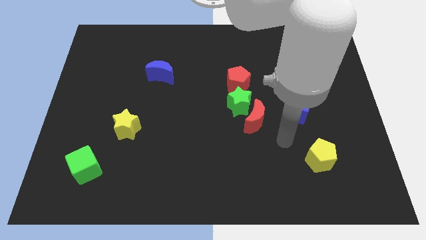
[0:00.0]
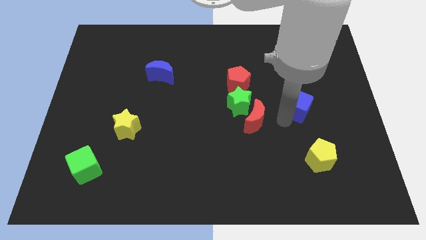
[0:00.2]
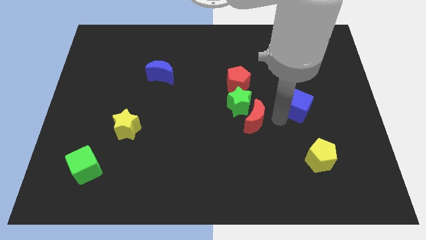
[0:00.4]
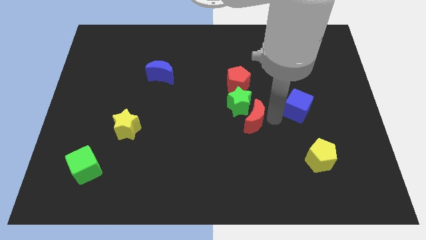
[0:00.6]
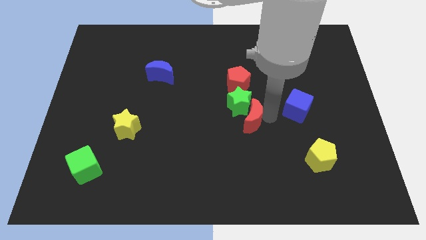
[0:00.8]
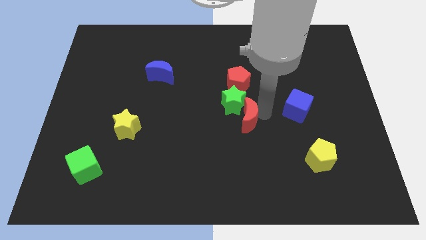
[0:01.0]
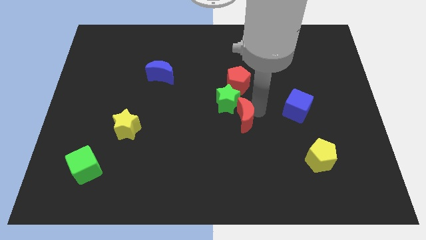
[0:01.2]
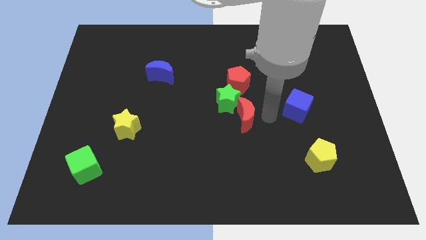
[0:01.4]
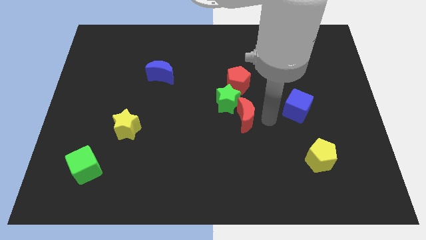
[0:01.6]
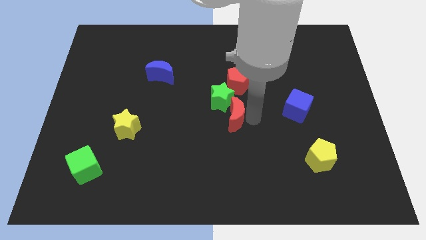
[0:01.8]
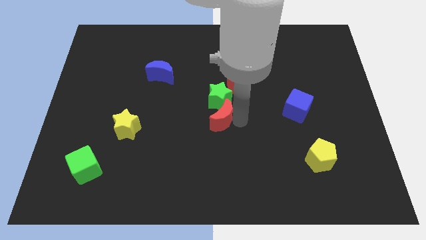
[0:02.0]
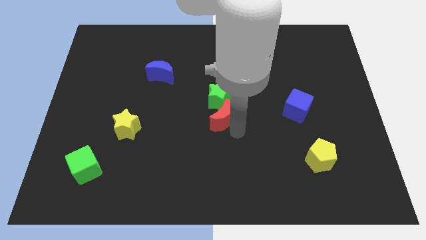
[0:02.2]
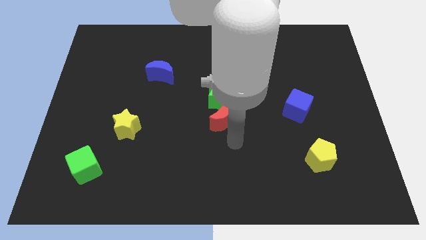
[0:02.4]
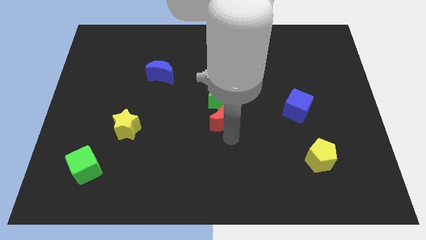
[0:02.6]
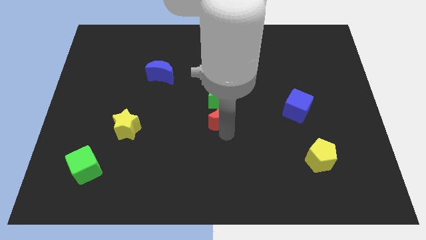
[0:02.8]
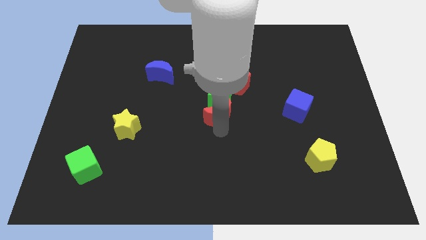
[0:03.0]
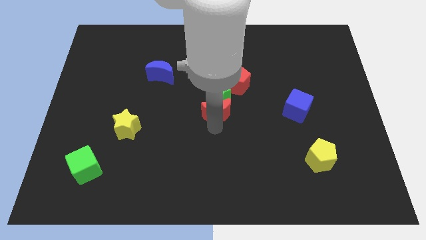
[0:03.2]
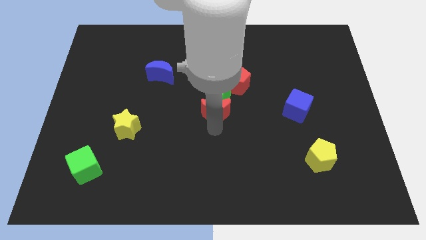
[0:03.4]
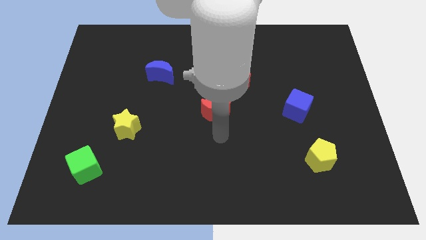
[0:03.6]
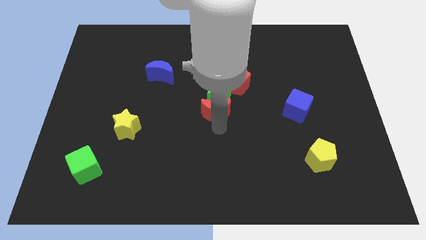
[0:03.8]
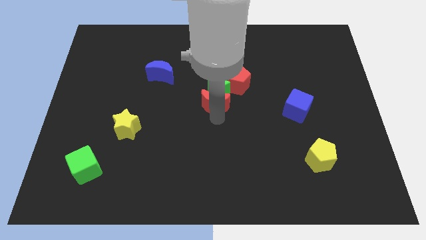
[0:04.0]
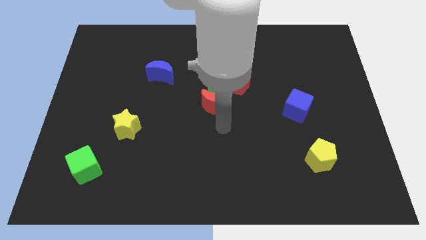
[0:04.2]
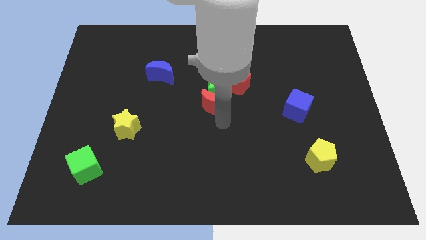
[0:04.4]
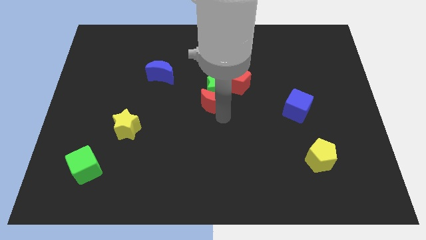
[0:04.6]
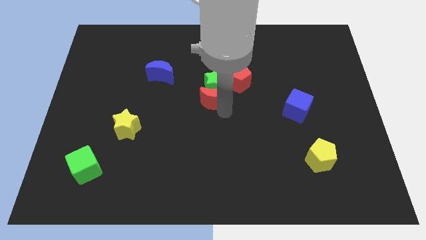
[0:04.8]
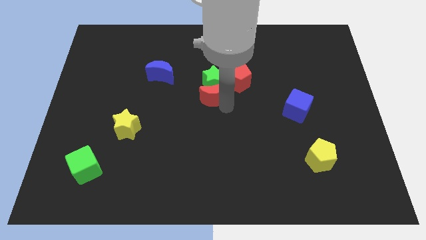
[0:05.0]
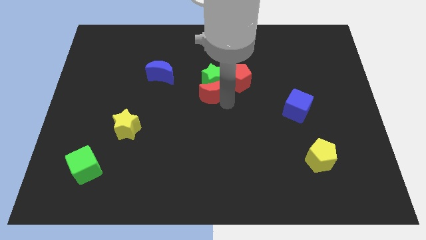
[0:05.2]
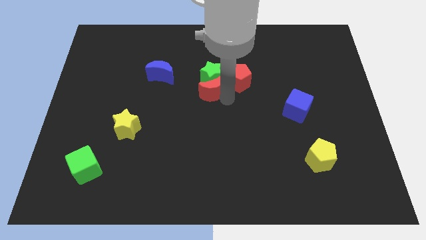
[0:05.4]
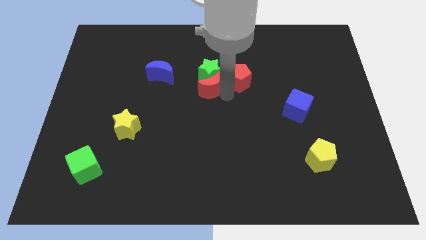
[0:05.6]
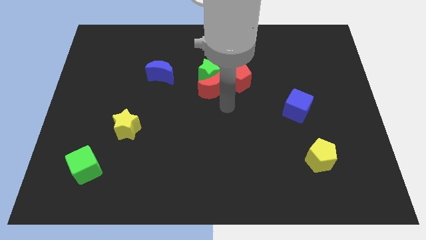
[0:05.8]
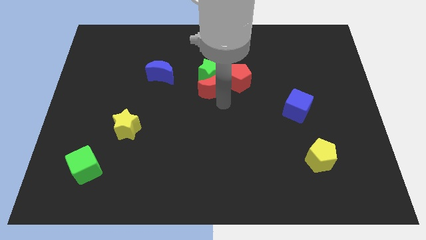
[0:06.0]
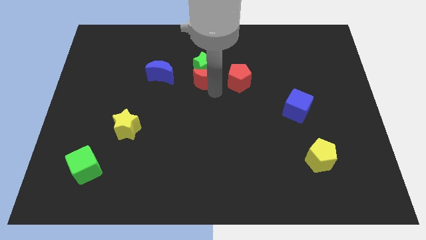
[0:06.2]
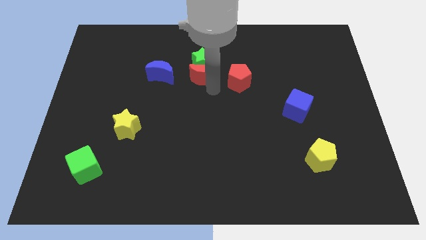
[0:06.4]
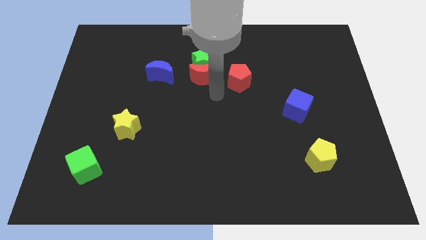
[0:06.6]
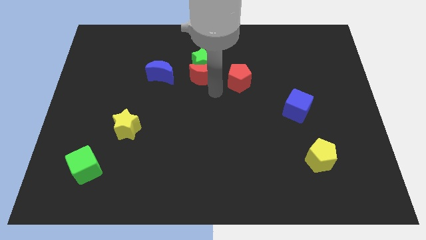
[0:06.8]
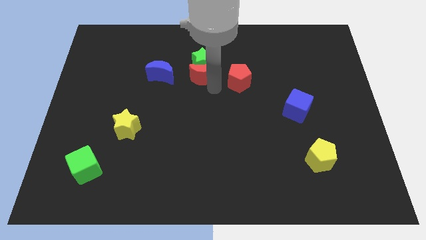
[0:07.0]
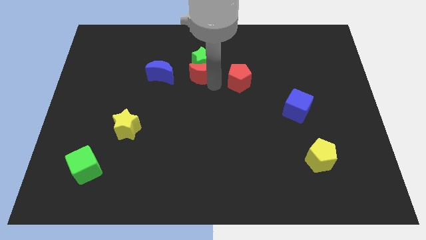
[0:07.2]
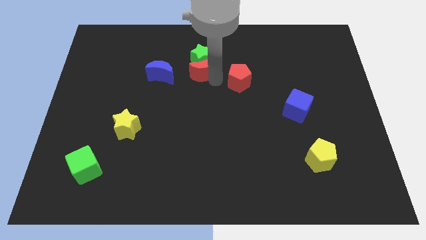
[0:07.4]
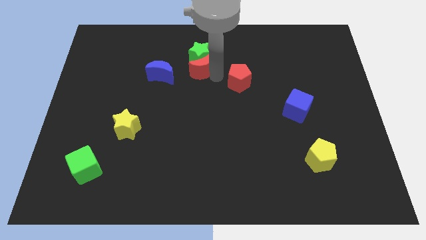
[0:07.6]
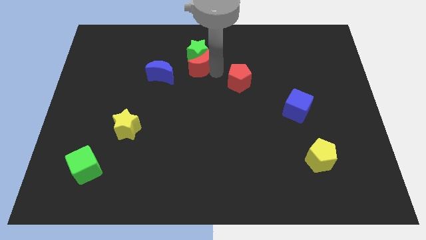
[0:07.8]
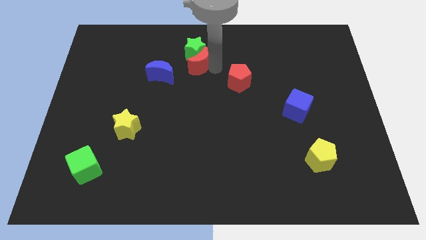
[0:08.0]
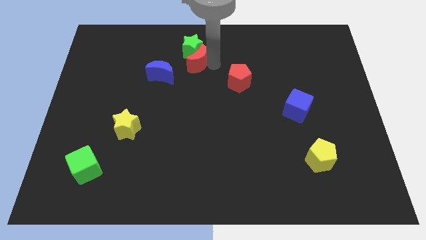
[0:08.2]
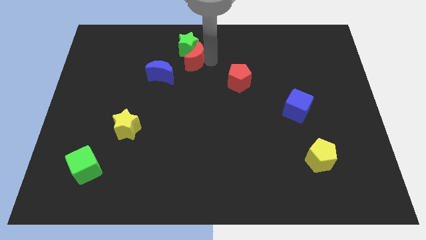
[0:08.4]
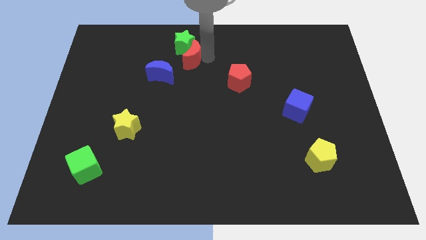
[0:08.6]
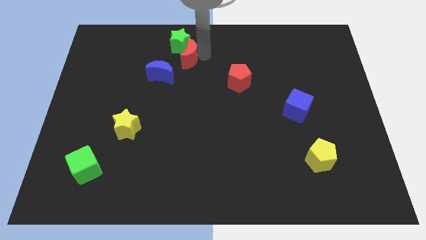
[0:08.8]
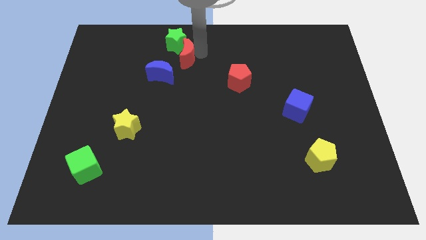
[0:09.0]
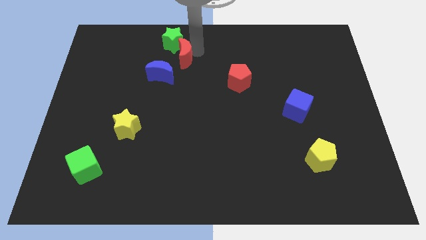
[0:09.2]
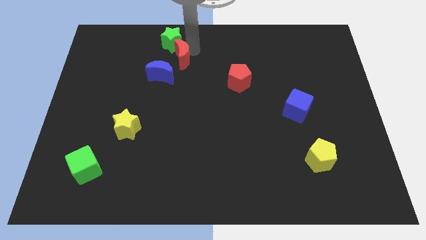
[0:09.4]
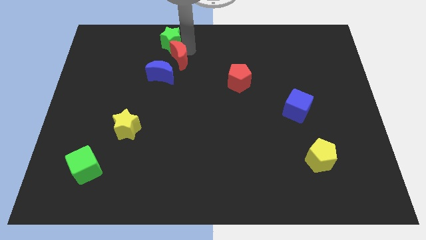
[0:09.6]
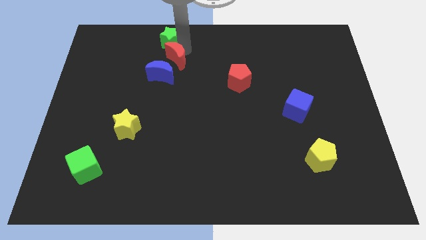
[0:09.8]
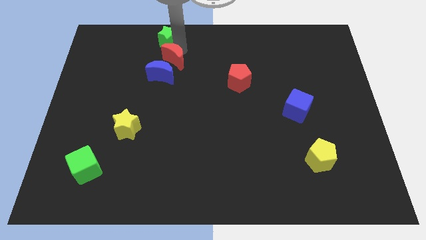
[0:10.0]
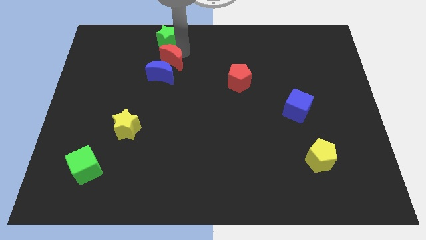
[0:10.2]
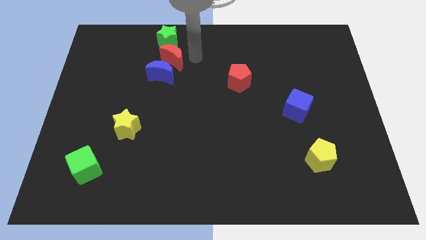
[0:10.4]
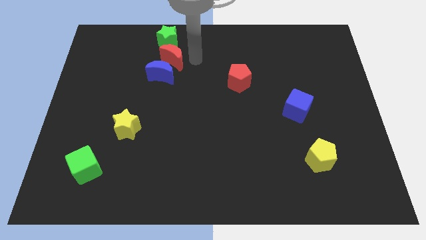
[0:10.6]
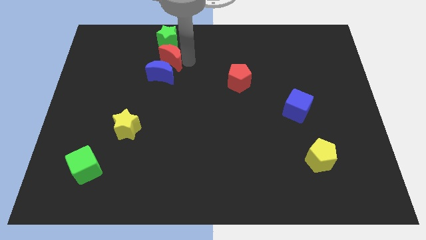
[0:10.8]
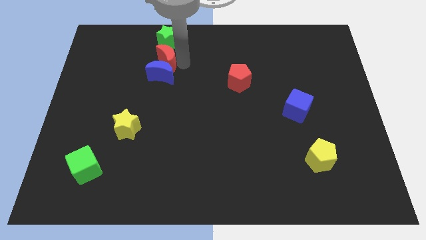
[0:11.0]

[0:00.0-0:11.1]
put the red moon to the top left of the blue moon

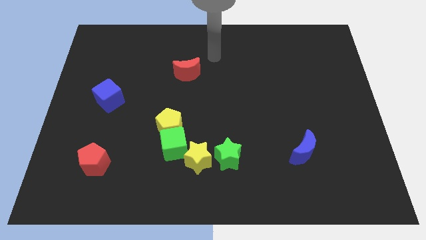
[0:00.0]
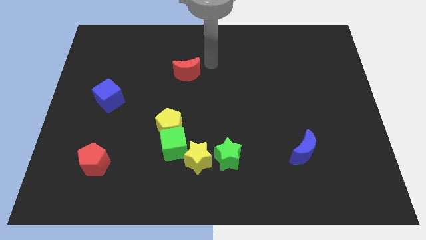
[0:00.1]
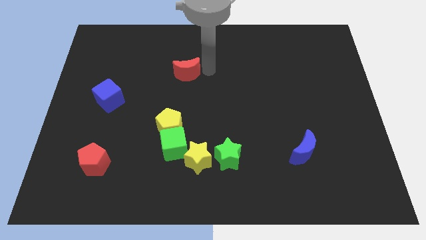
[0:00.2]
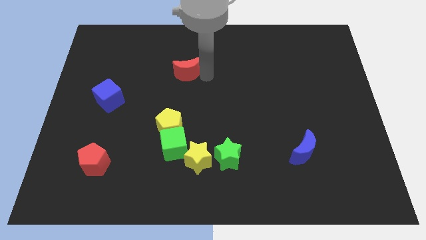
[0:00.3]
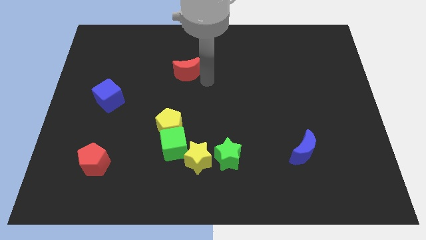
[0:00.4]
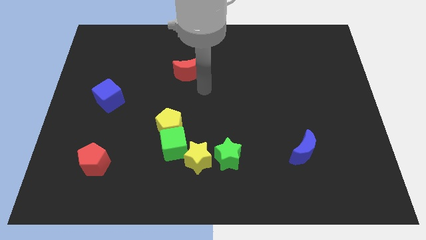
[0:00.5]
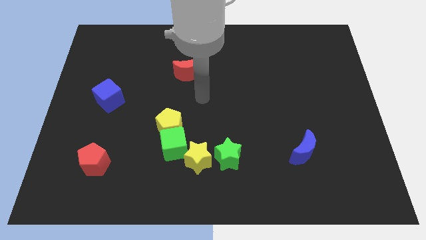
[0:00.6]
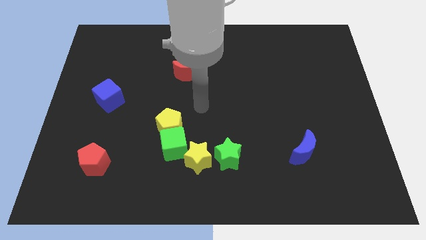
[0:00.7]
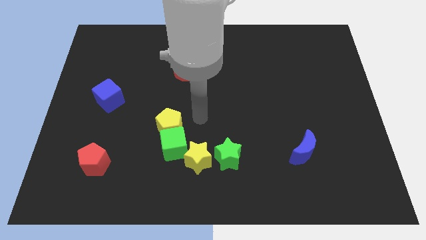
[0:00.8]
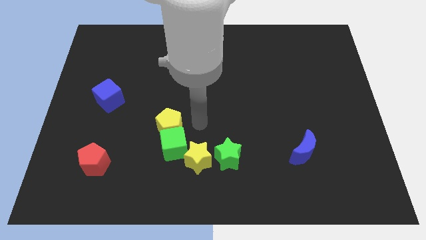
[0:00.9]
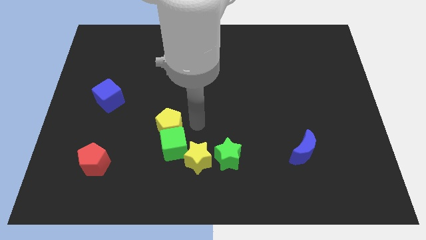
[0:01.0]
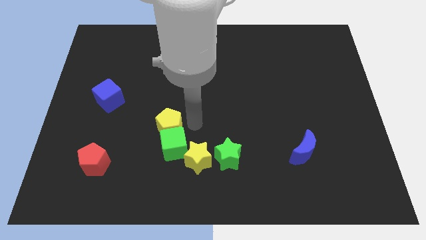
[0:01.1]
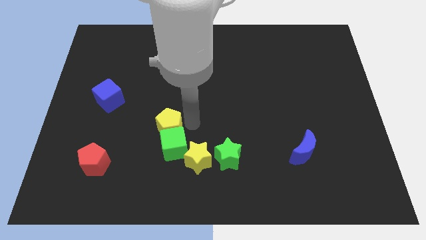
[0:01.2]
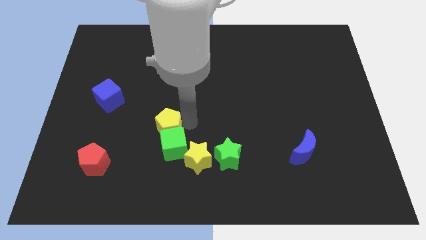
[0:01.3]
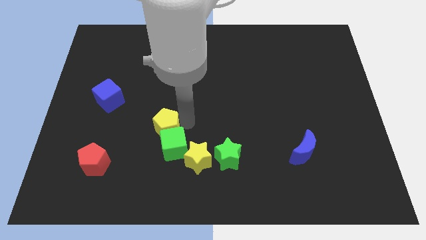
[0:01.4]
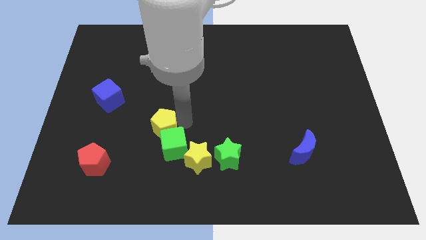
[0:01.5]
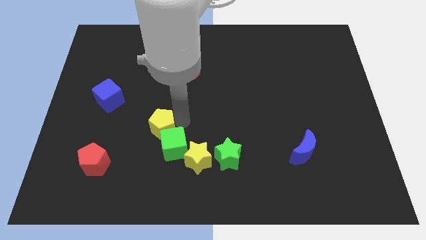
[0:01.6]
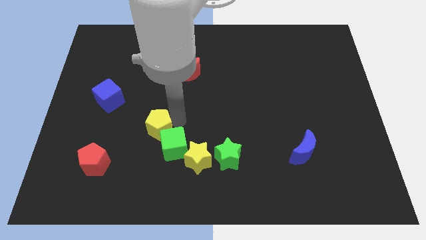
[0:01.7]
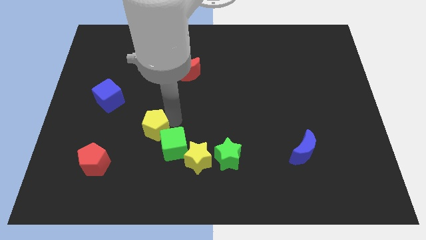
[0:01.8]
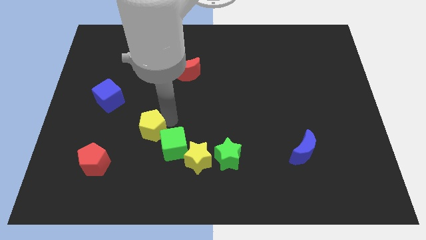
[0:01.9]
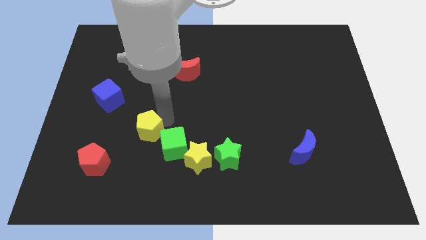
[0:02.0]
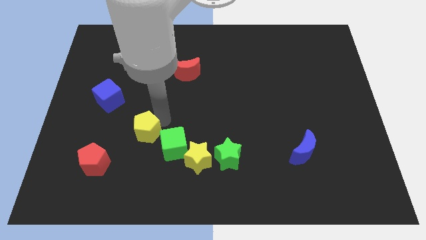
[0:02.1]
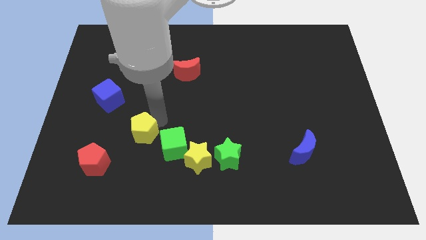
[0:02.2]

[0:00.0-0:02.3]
slide the yellow pentagon to the top right of the red pentagon

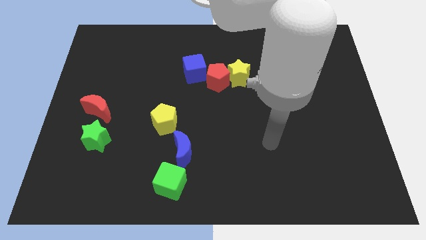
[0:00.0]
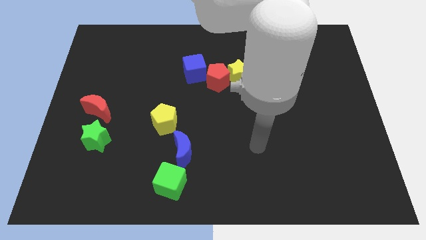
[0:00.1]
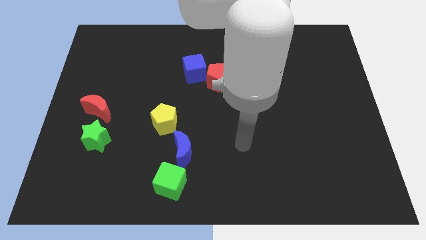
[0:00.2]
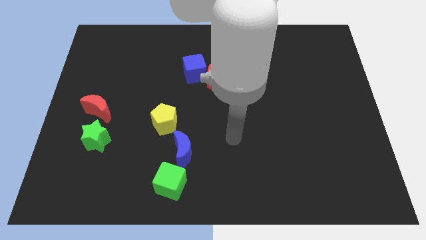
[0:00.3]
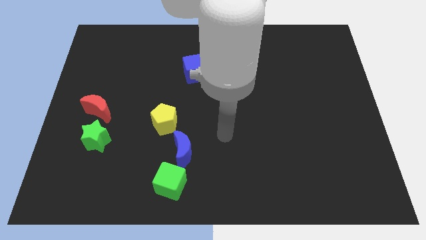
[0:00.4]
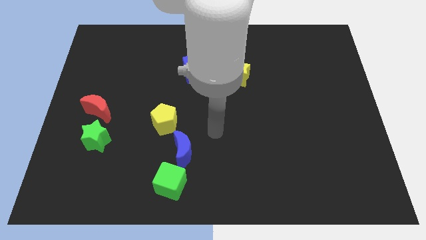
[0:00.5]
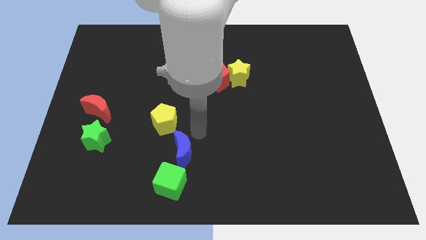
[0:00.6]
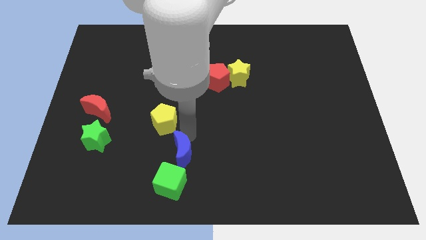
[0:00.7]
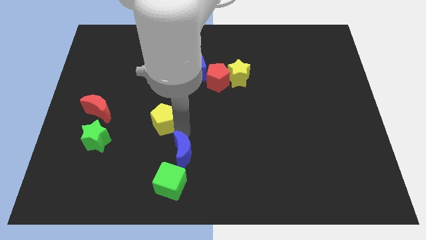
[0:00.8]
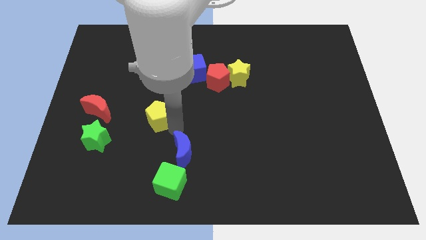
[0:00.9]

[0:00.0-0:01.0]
put the yellow pentagon right of the red moon
